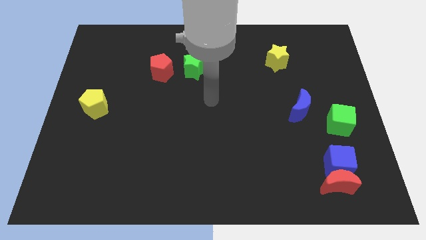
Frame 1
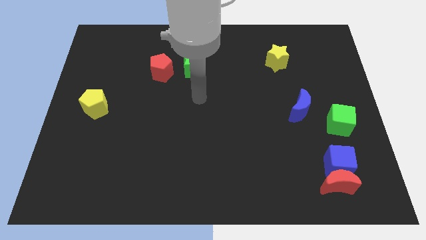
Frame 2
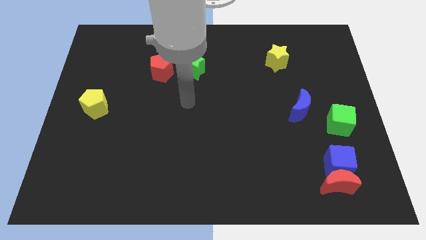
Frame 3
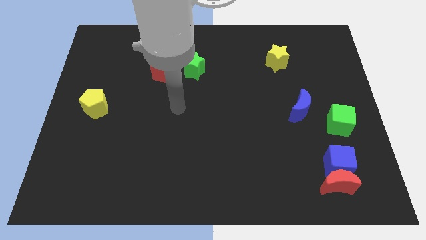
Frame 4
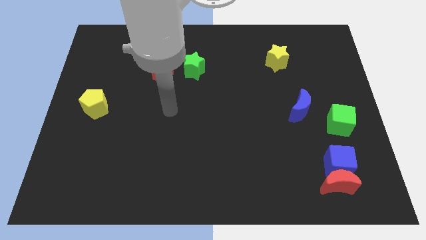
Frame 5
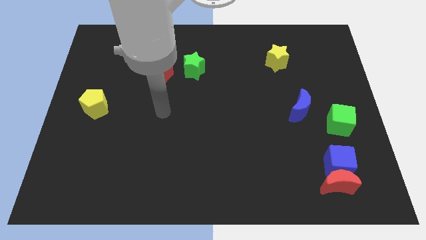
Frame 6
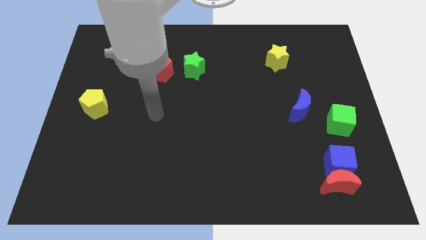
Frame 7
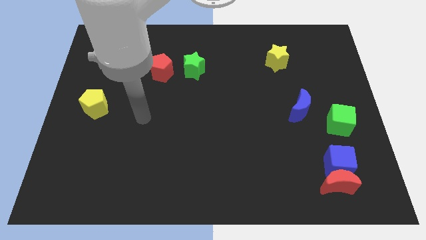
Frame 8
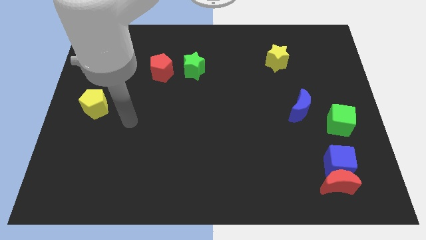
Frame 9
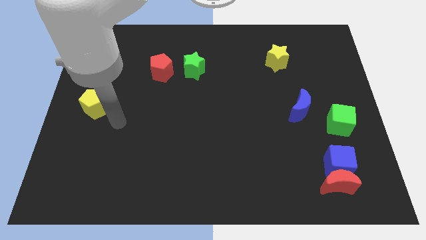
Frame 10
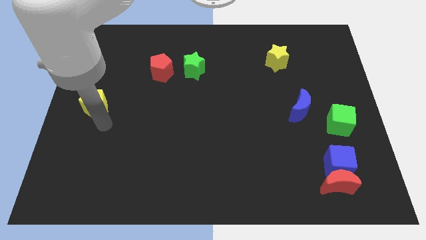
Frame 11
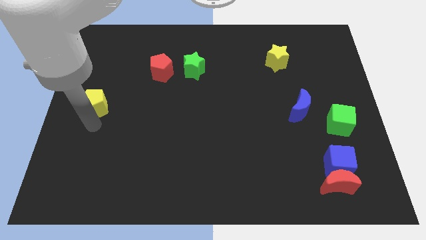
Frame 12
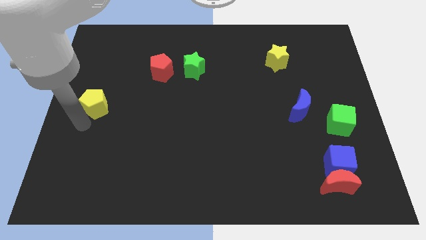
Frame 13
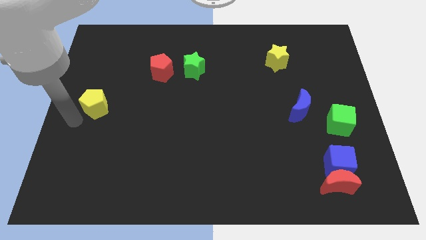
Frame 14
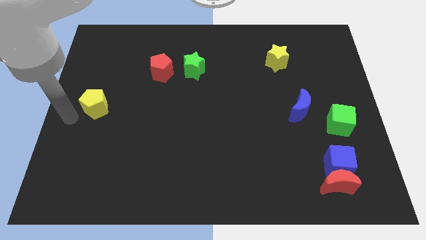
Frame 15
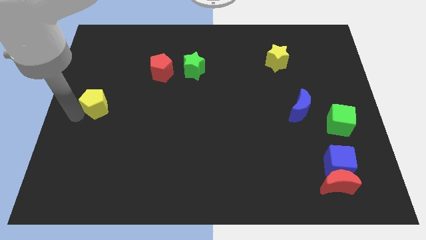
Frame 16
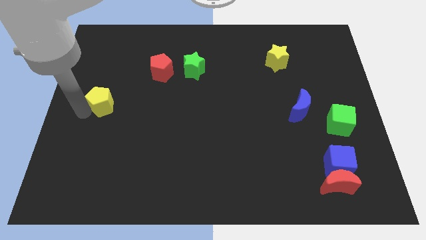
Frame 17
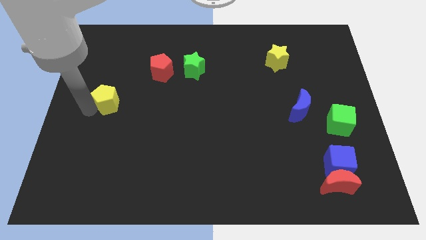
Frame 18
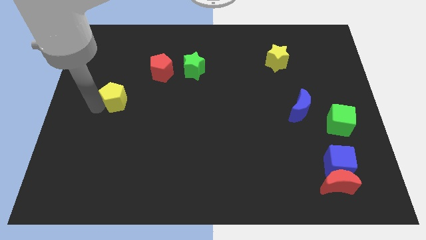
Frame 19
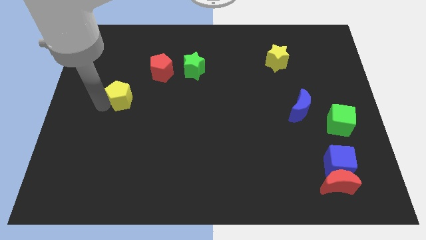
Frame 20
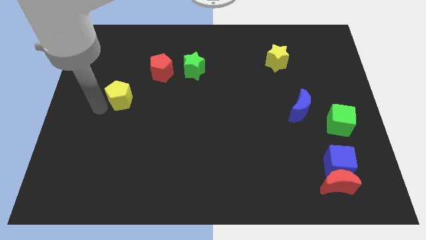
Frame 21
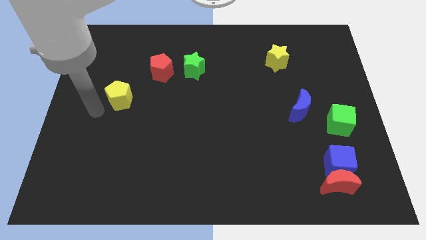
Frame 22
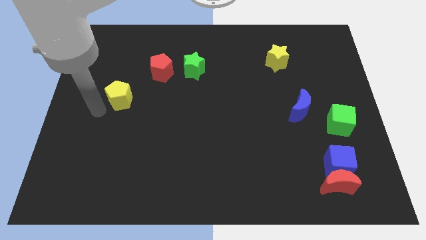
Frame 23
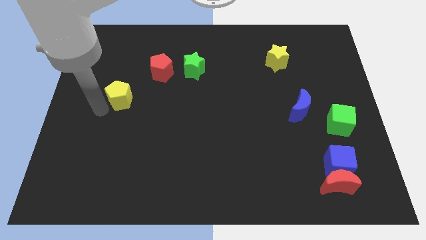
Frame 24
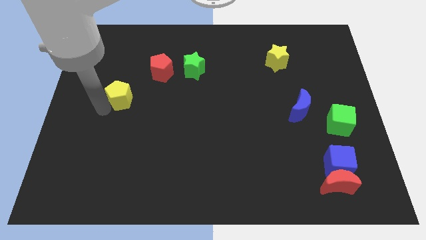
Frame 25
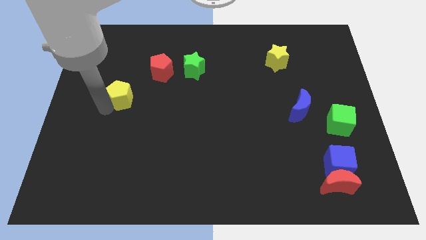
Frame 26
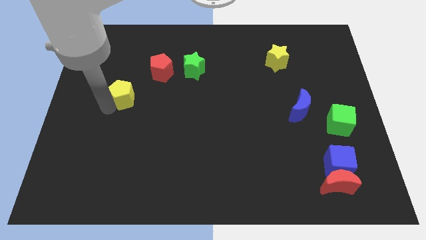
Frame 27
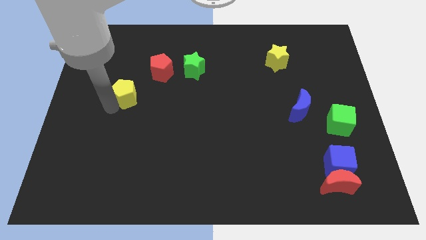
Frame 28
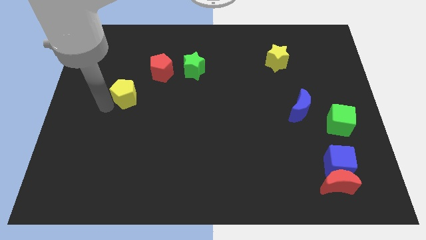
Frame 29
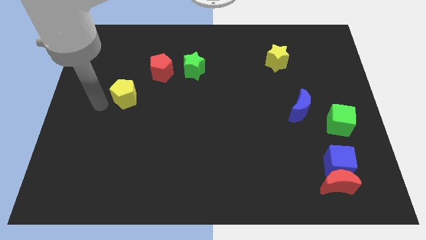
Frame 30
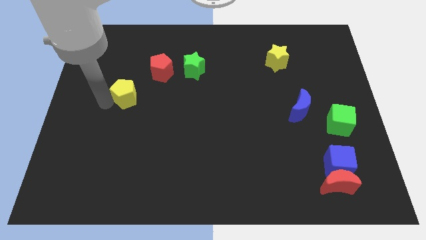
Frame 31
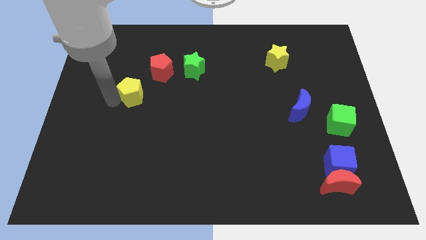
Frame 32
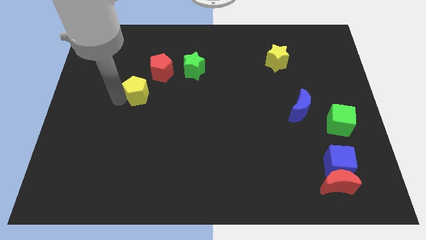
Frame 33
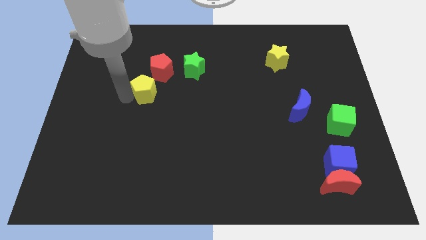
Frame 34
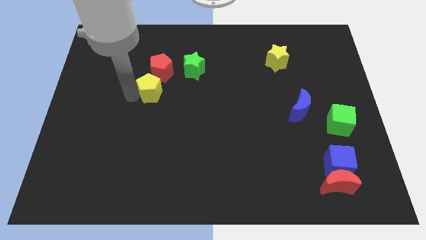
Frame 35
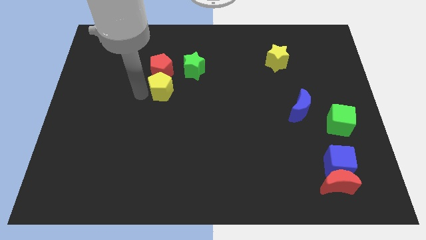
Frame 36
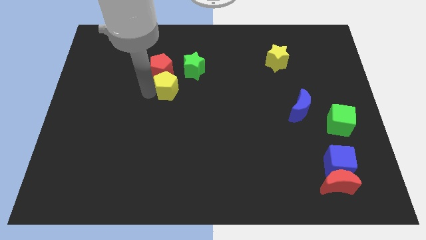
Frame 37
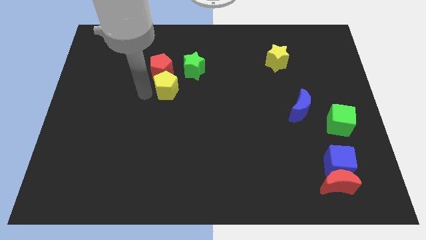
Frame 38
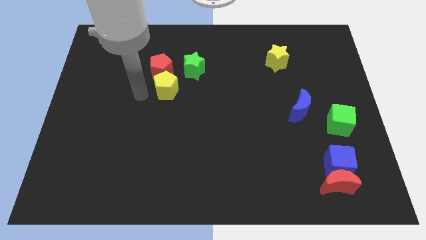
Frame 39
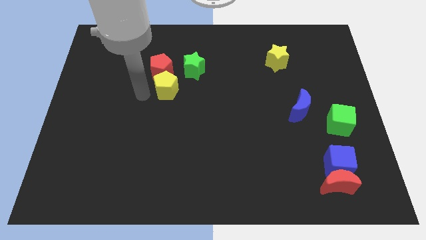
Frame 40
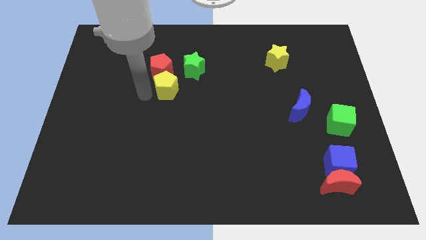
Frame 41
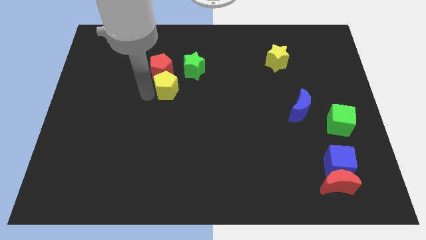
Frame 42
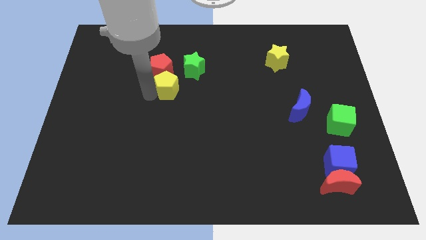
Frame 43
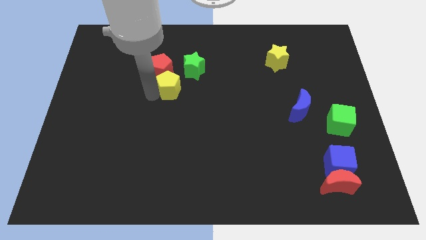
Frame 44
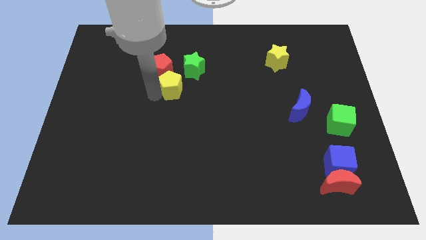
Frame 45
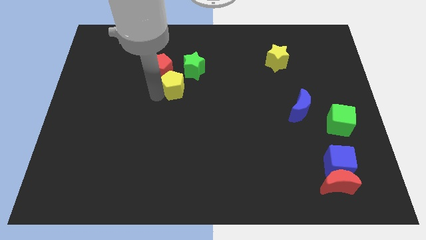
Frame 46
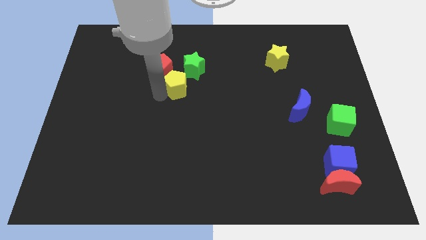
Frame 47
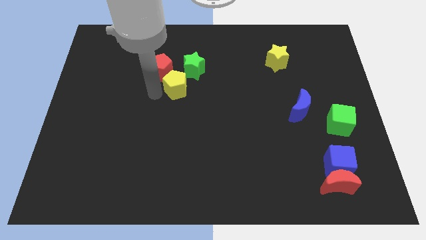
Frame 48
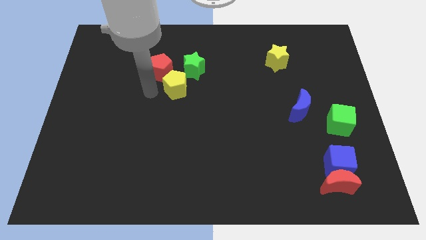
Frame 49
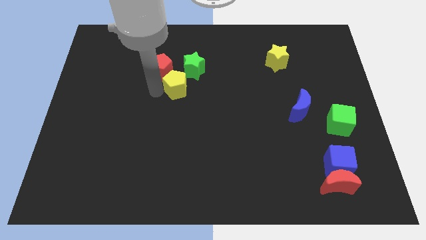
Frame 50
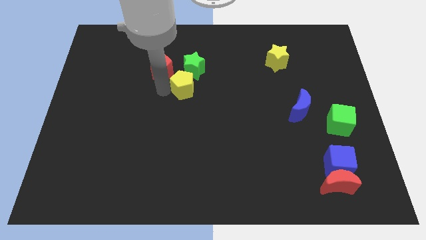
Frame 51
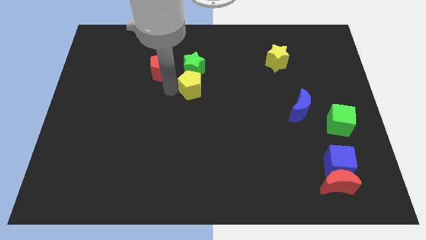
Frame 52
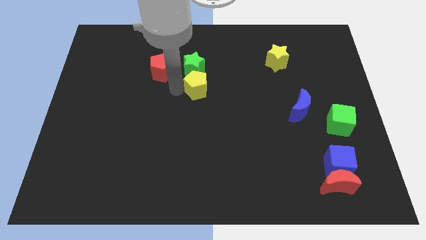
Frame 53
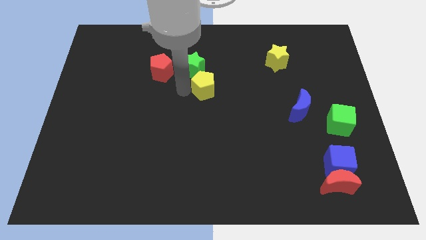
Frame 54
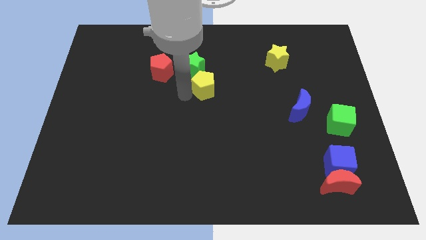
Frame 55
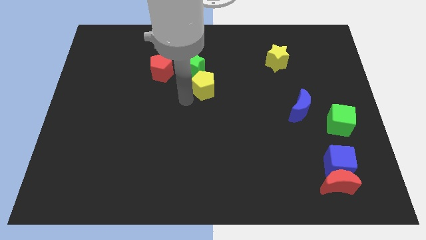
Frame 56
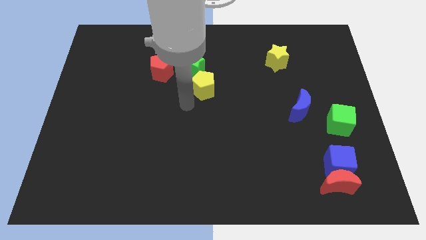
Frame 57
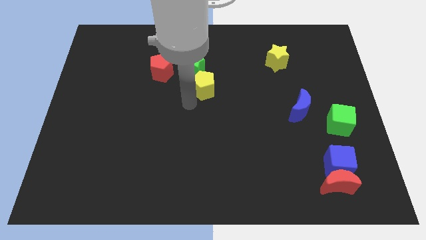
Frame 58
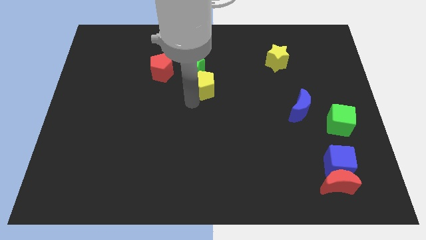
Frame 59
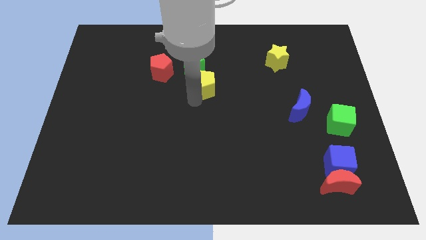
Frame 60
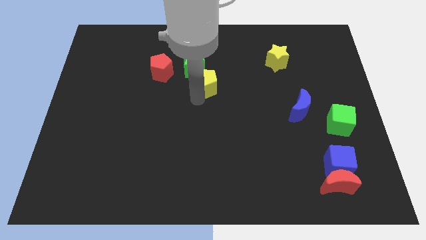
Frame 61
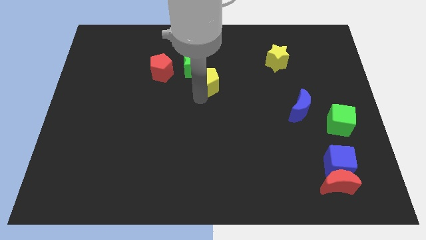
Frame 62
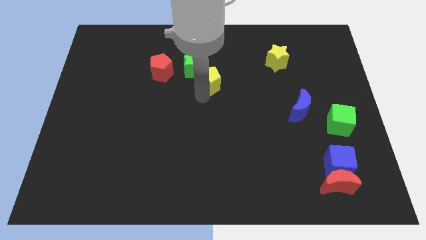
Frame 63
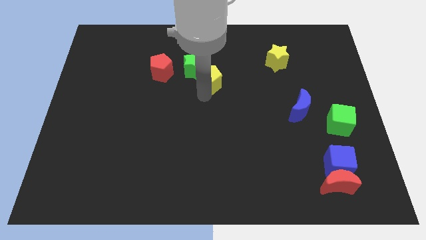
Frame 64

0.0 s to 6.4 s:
put the yellow pentagon right of the green star
